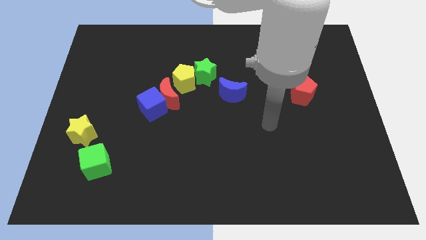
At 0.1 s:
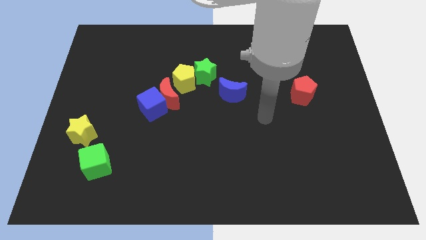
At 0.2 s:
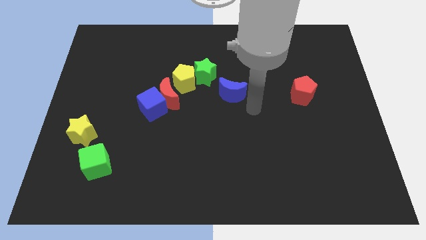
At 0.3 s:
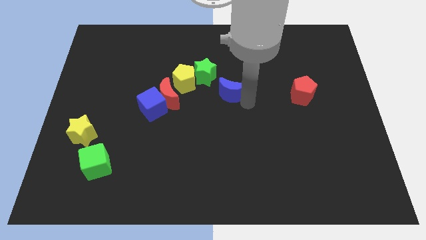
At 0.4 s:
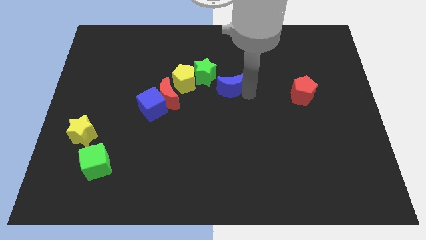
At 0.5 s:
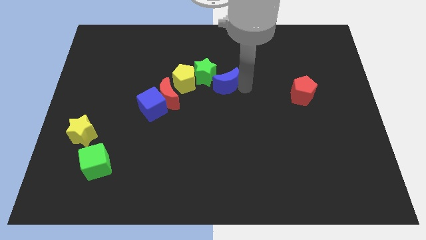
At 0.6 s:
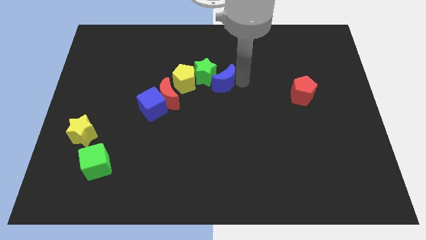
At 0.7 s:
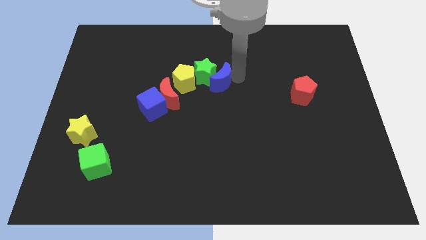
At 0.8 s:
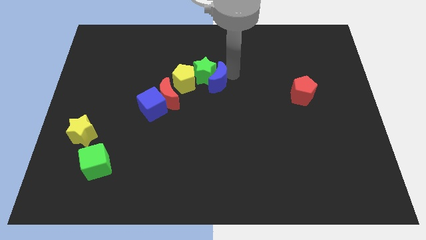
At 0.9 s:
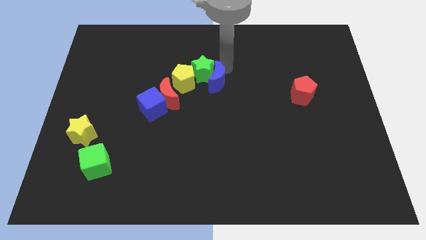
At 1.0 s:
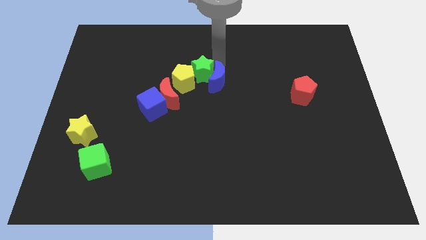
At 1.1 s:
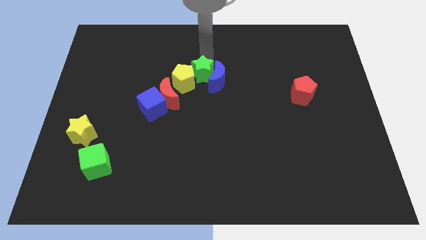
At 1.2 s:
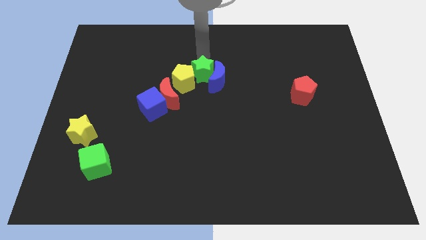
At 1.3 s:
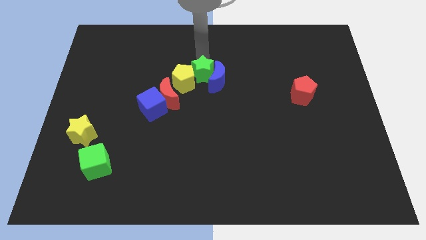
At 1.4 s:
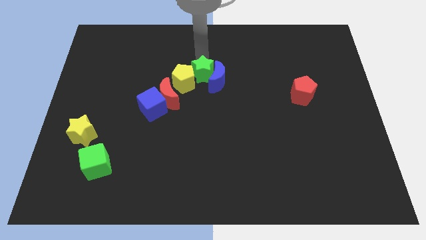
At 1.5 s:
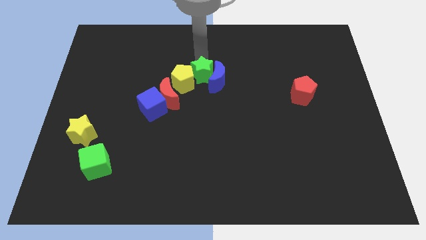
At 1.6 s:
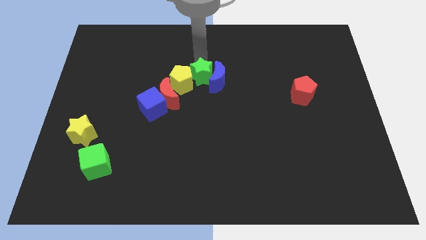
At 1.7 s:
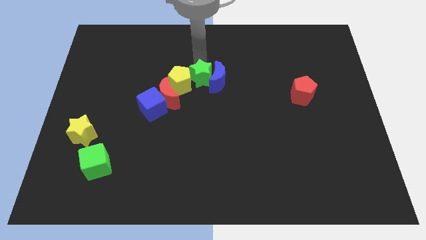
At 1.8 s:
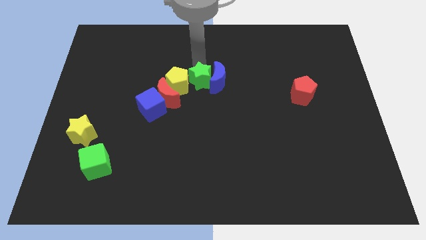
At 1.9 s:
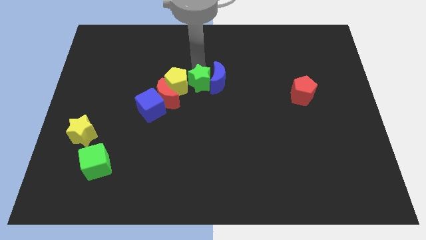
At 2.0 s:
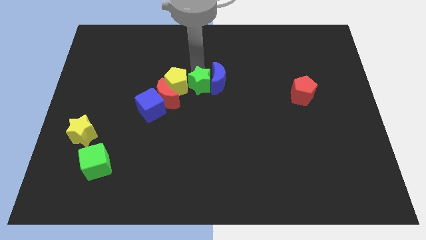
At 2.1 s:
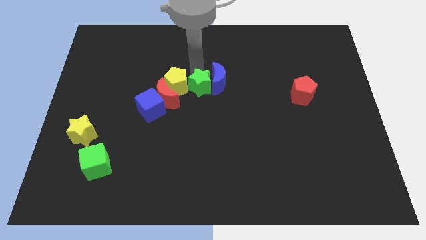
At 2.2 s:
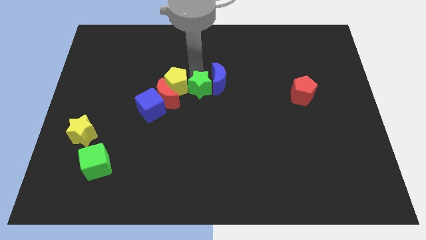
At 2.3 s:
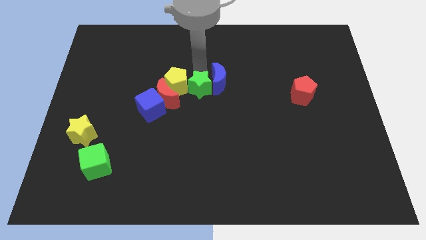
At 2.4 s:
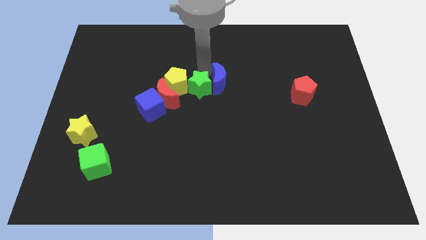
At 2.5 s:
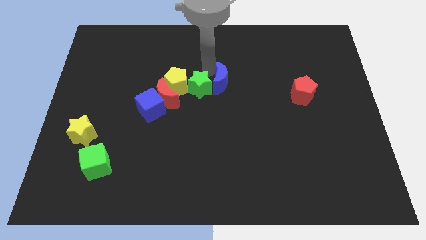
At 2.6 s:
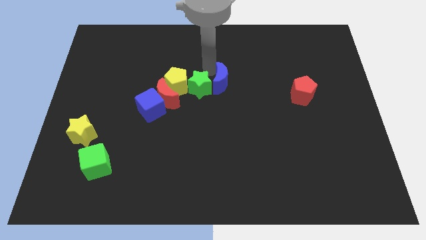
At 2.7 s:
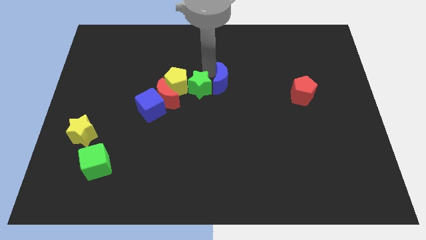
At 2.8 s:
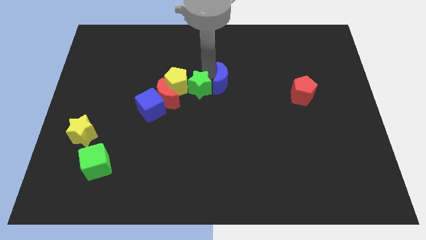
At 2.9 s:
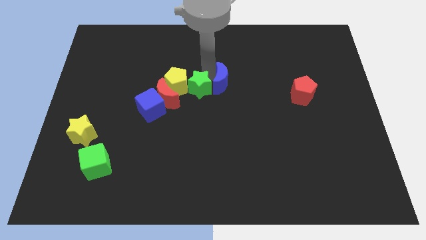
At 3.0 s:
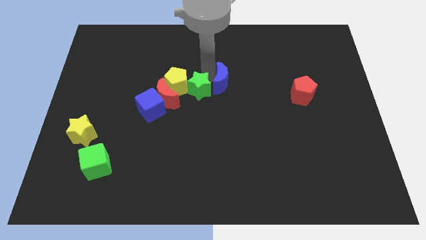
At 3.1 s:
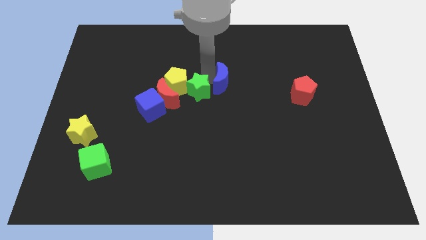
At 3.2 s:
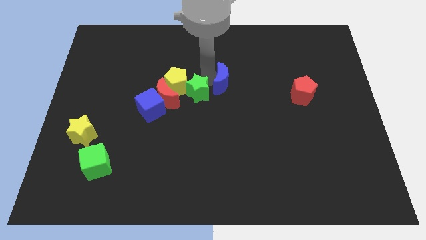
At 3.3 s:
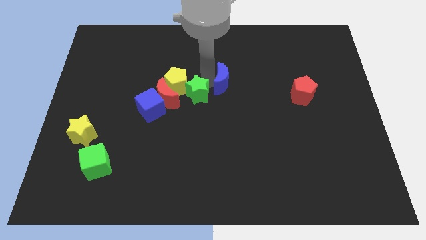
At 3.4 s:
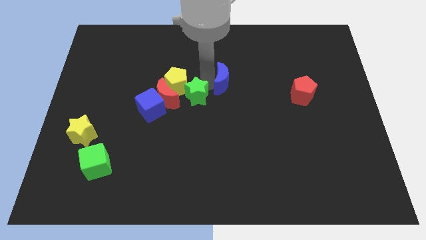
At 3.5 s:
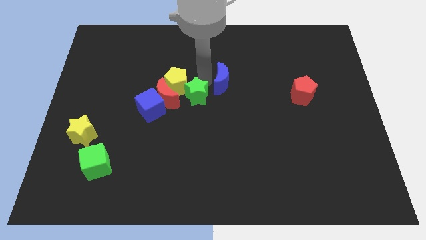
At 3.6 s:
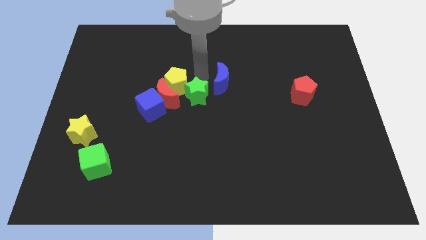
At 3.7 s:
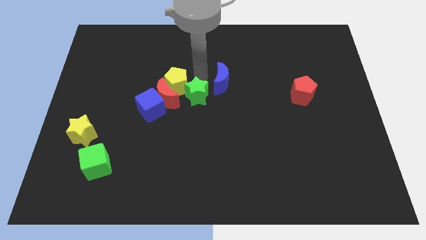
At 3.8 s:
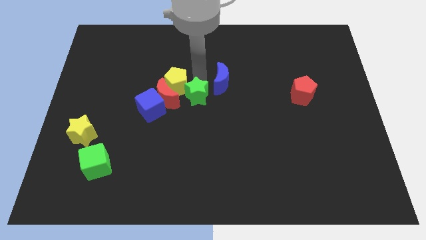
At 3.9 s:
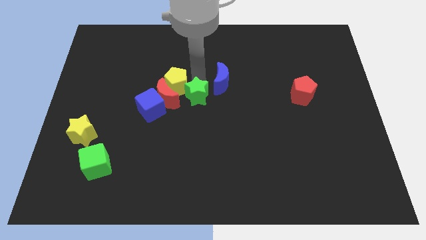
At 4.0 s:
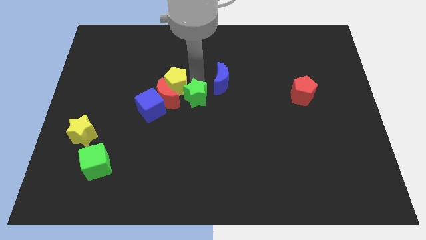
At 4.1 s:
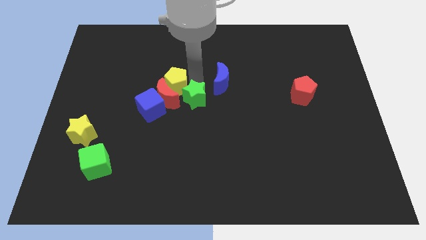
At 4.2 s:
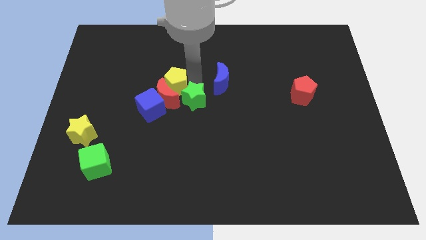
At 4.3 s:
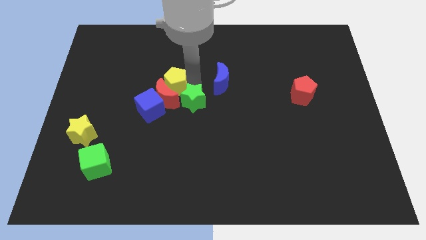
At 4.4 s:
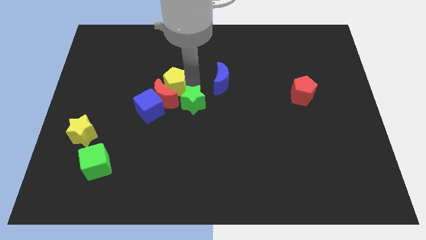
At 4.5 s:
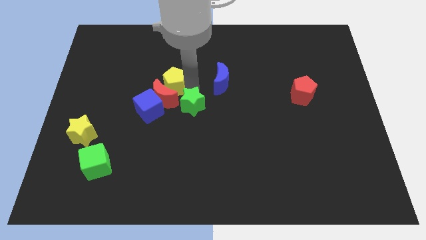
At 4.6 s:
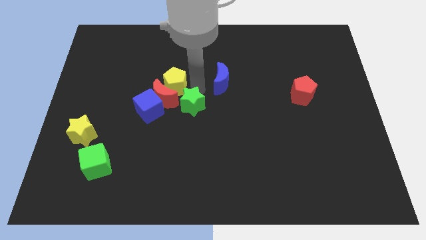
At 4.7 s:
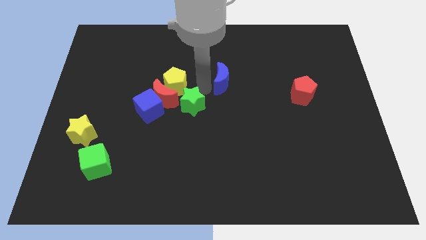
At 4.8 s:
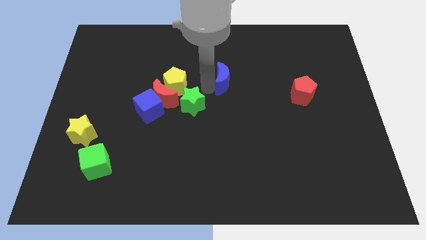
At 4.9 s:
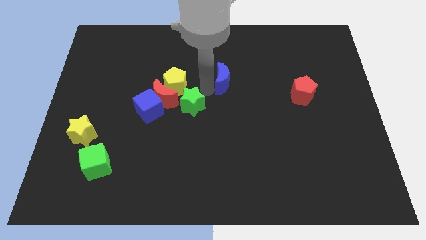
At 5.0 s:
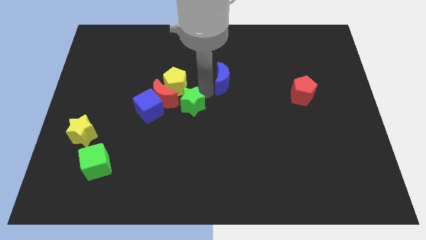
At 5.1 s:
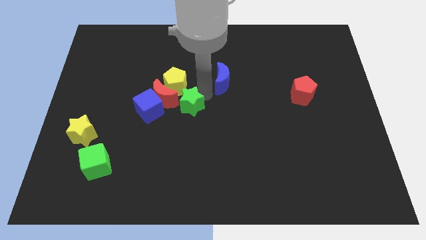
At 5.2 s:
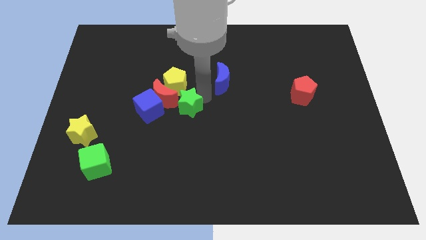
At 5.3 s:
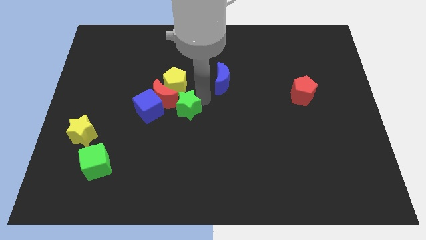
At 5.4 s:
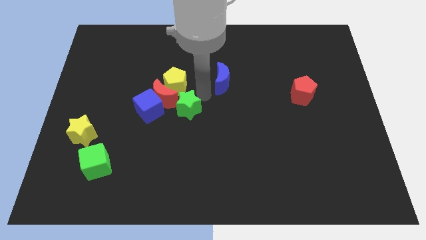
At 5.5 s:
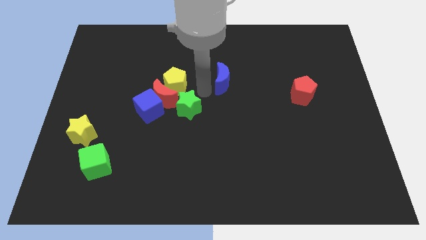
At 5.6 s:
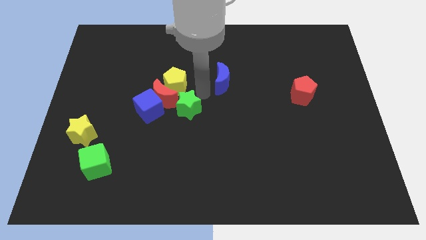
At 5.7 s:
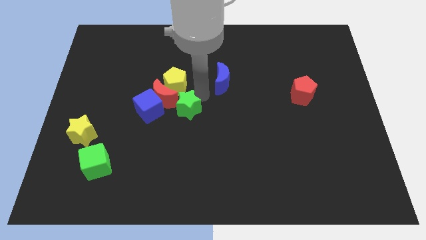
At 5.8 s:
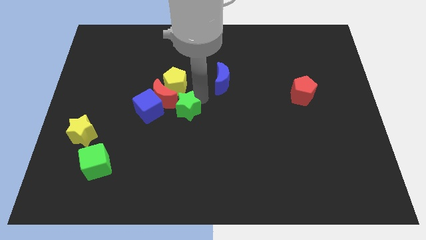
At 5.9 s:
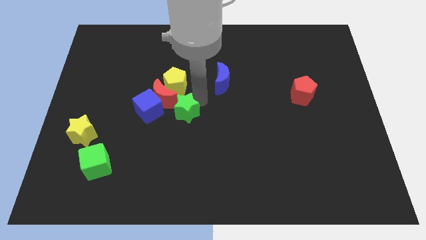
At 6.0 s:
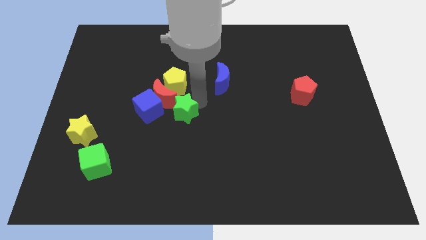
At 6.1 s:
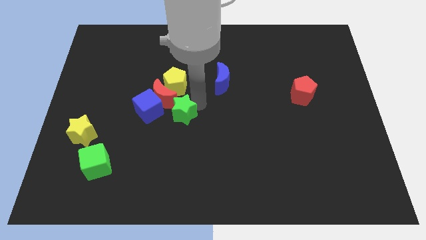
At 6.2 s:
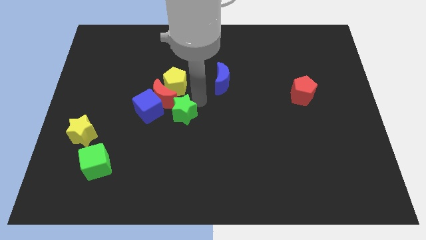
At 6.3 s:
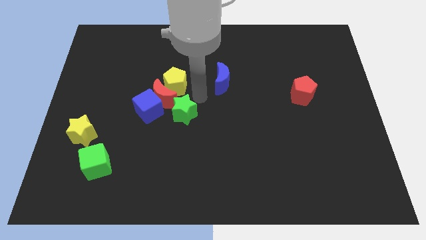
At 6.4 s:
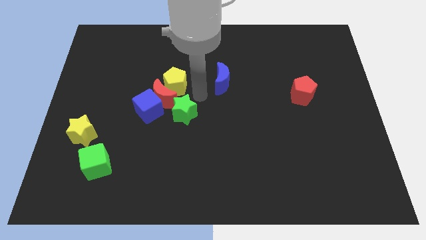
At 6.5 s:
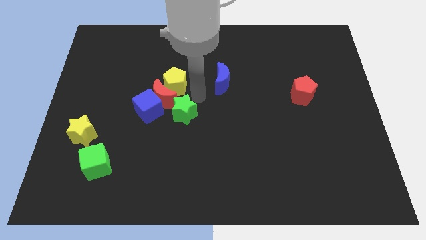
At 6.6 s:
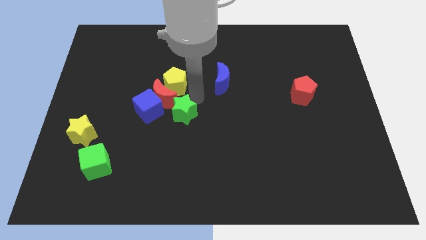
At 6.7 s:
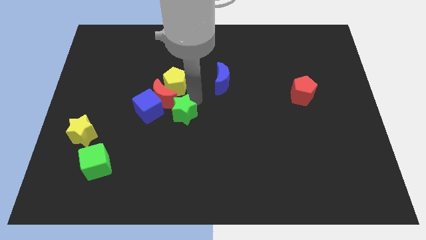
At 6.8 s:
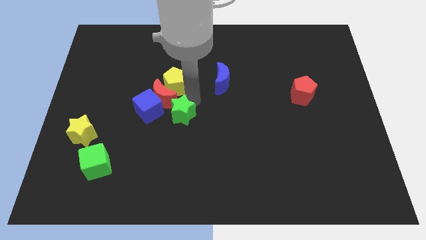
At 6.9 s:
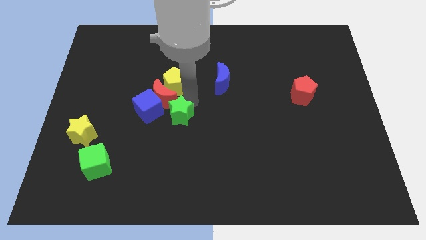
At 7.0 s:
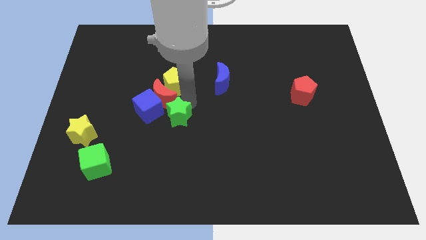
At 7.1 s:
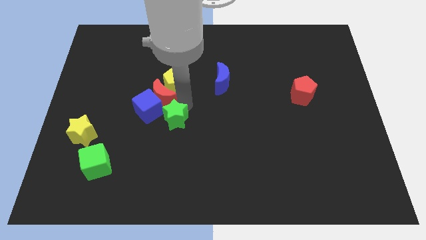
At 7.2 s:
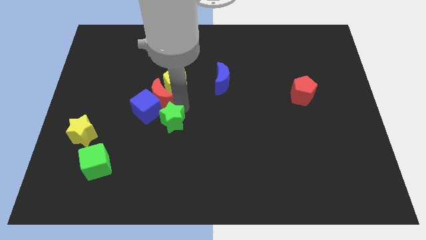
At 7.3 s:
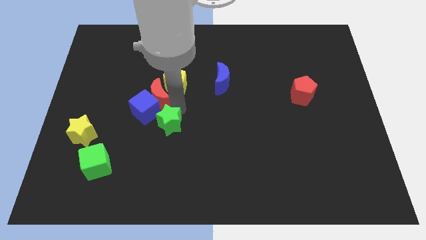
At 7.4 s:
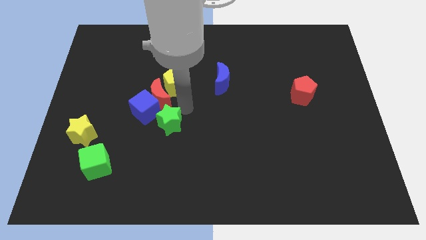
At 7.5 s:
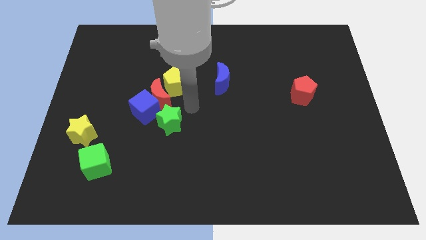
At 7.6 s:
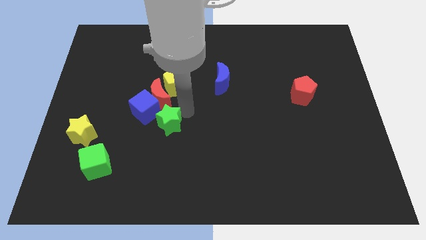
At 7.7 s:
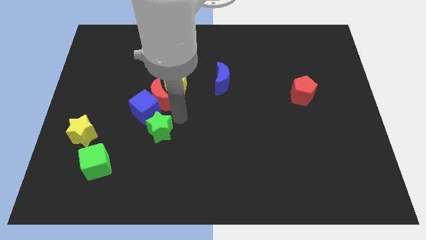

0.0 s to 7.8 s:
move the green star to the bottom of the blue cube
